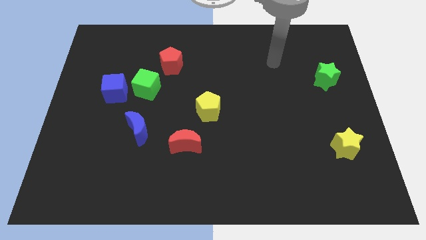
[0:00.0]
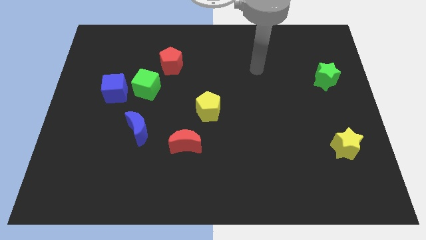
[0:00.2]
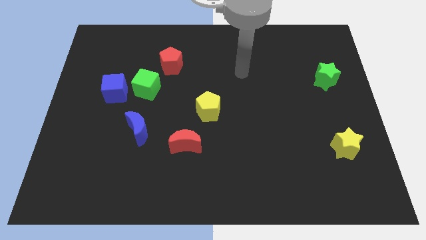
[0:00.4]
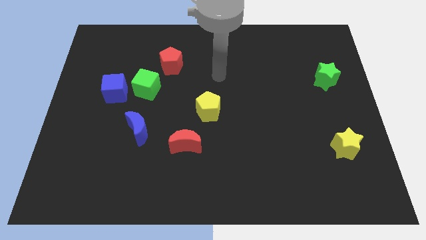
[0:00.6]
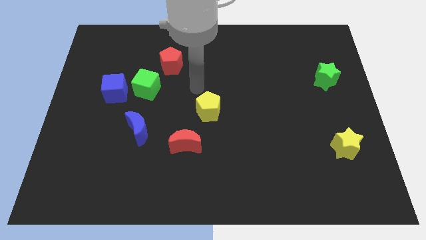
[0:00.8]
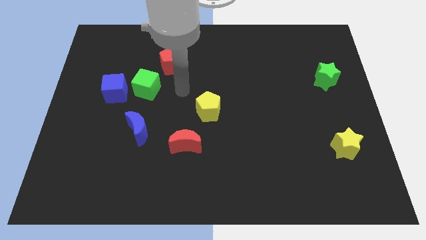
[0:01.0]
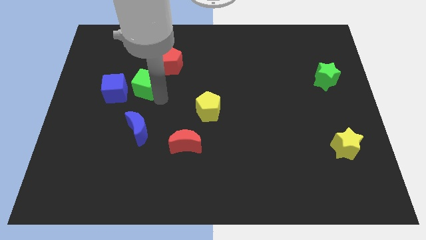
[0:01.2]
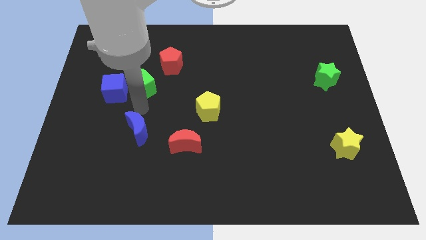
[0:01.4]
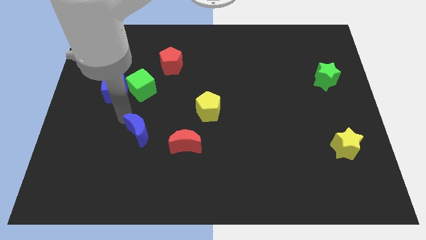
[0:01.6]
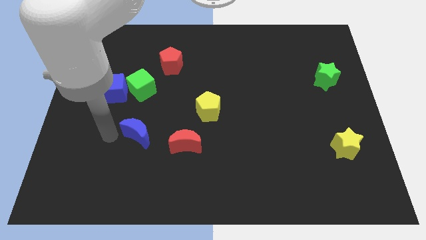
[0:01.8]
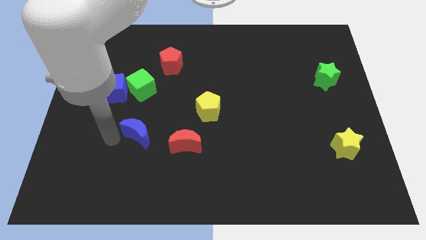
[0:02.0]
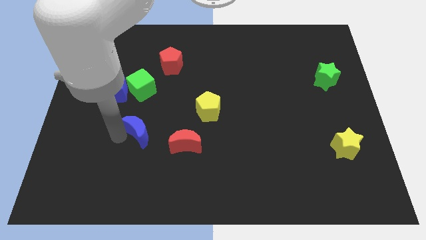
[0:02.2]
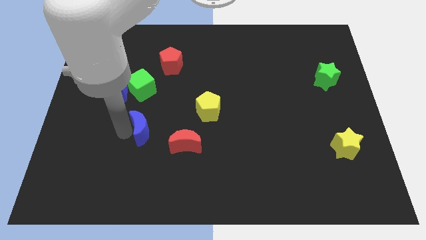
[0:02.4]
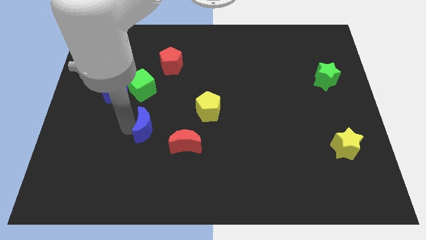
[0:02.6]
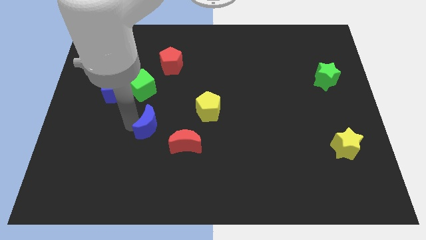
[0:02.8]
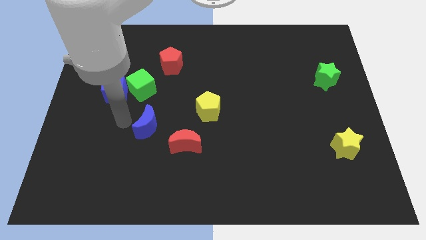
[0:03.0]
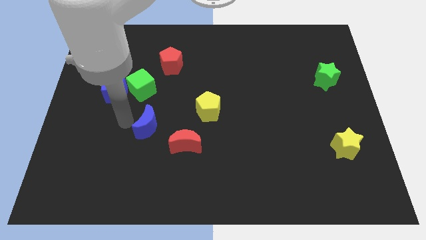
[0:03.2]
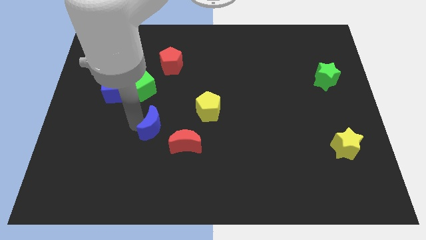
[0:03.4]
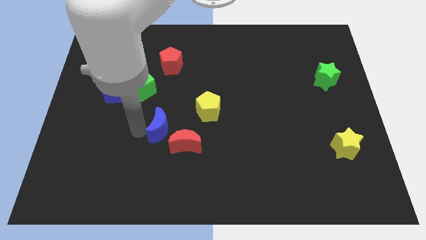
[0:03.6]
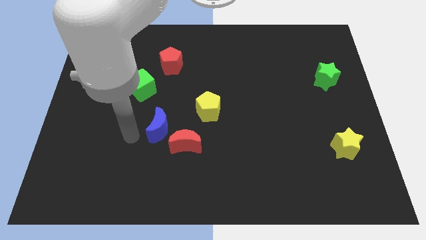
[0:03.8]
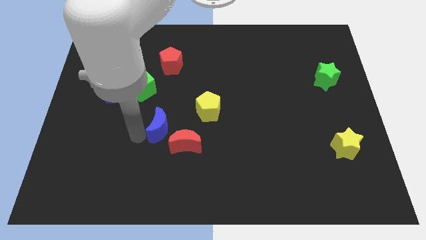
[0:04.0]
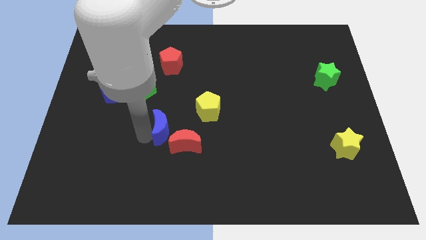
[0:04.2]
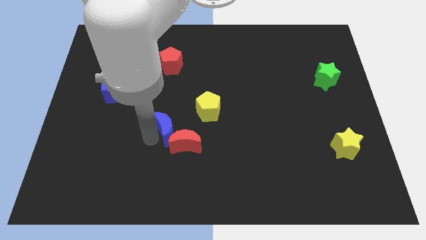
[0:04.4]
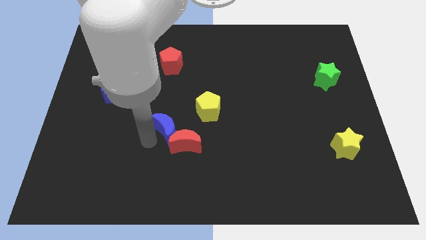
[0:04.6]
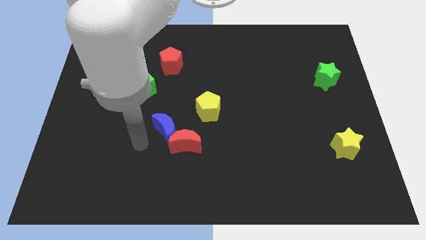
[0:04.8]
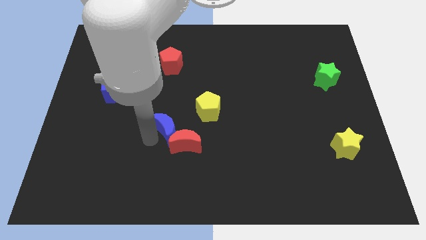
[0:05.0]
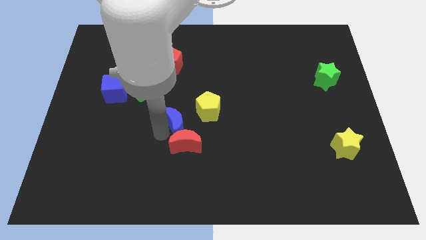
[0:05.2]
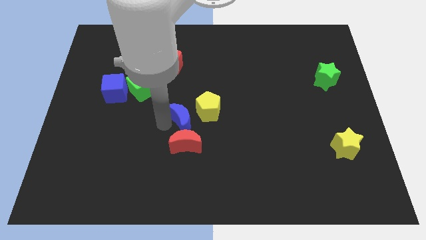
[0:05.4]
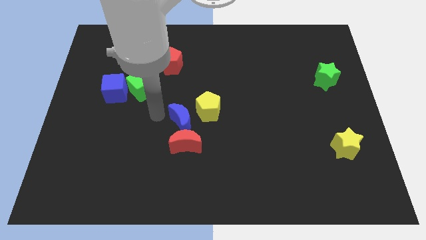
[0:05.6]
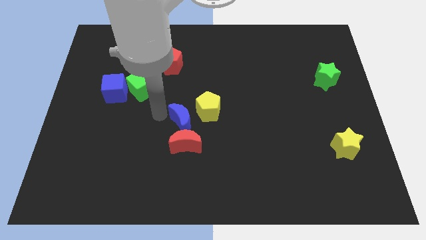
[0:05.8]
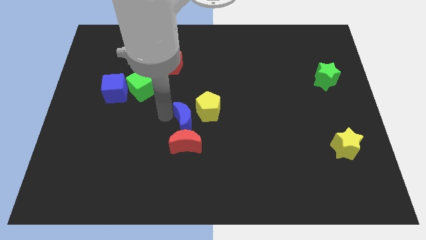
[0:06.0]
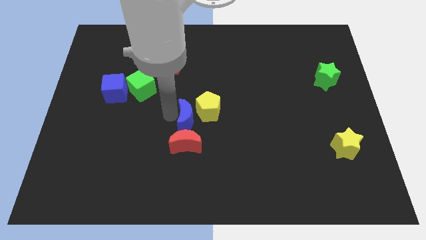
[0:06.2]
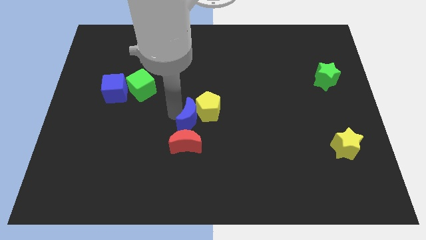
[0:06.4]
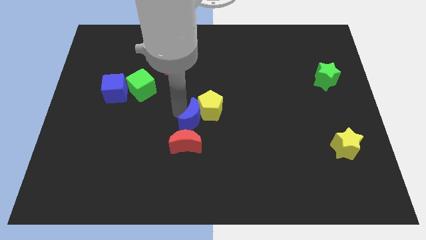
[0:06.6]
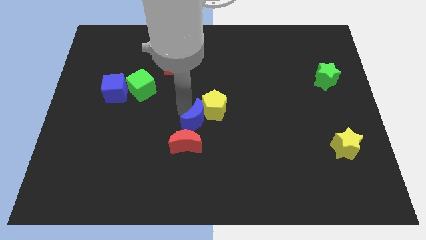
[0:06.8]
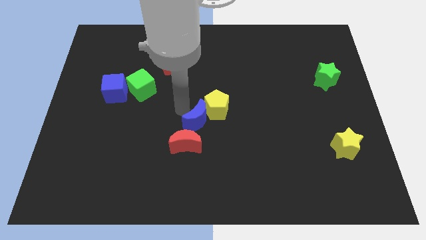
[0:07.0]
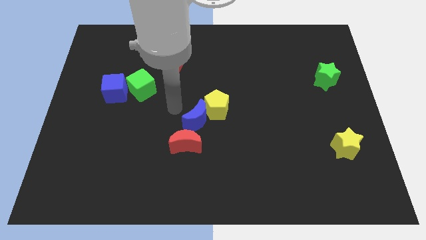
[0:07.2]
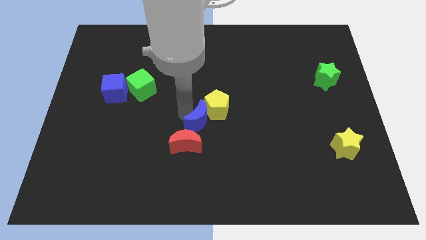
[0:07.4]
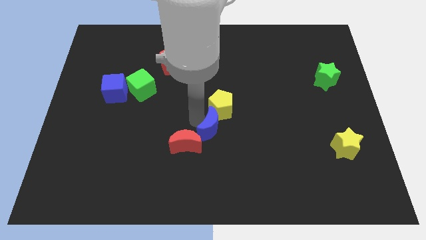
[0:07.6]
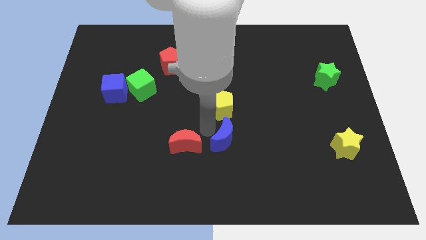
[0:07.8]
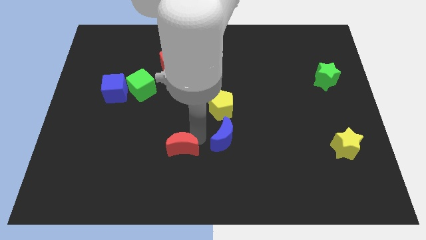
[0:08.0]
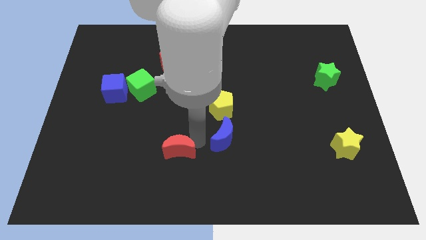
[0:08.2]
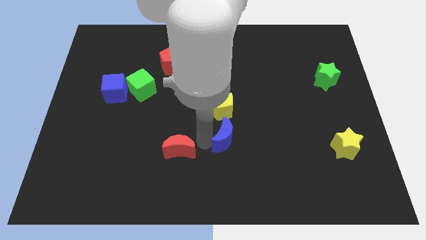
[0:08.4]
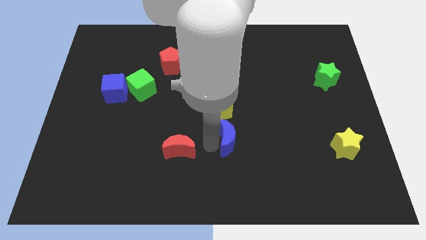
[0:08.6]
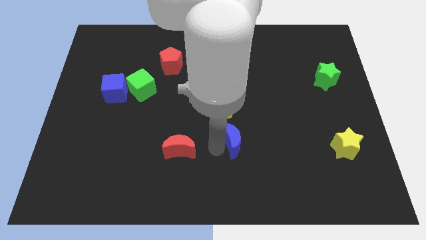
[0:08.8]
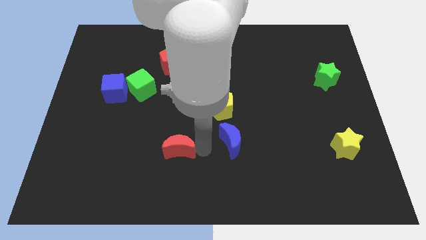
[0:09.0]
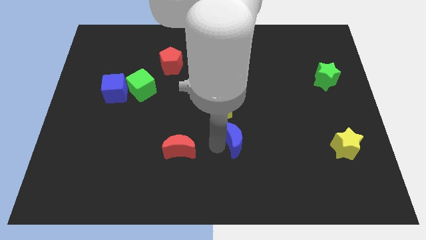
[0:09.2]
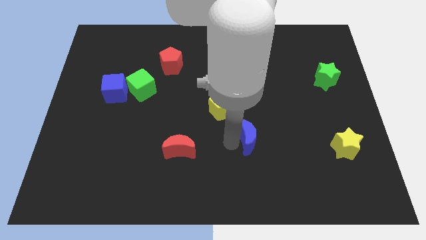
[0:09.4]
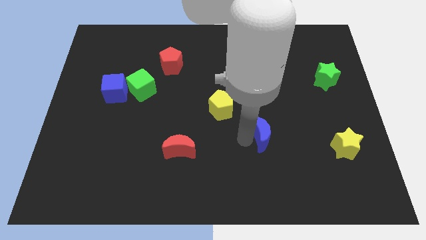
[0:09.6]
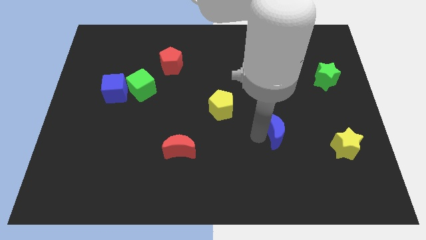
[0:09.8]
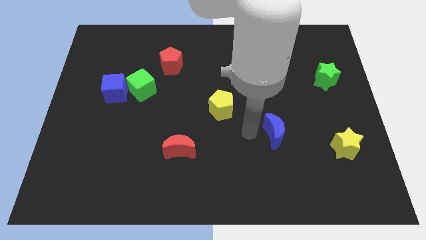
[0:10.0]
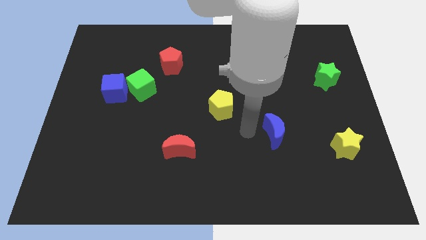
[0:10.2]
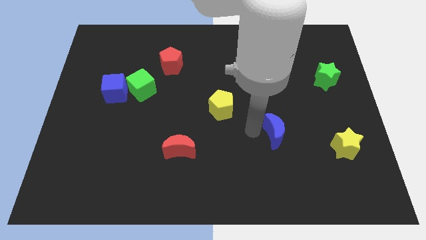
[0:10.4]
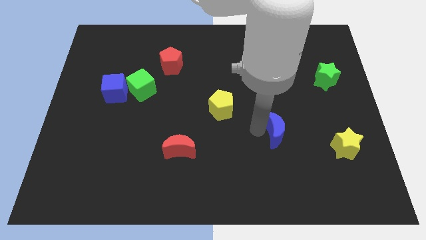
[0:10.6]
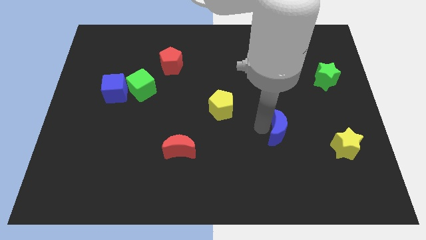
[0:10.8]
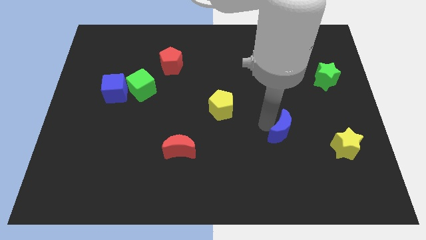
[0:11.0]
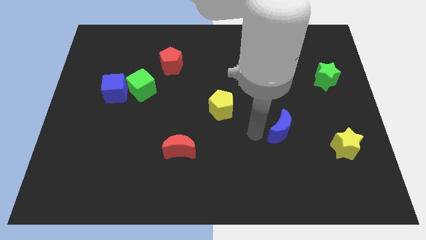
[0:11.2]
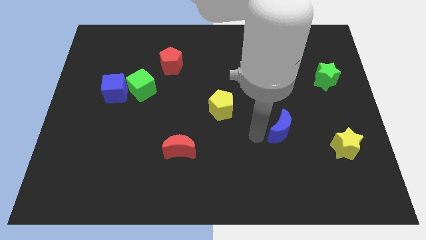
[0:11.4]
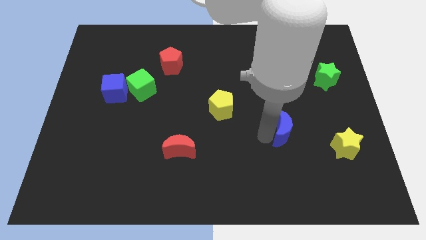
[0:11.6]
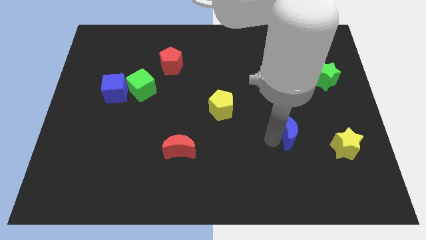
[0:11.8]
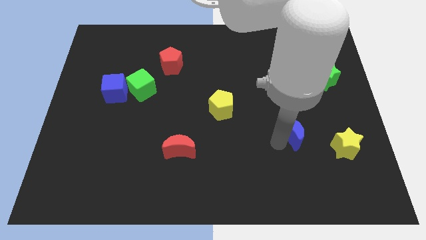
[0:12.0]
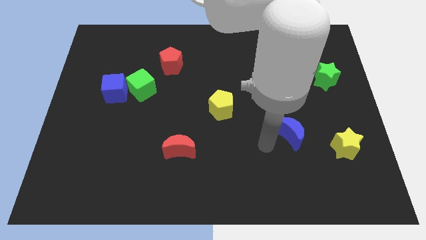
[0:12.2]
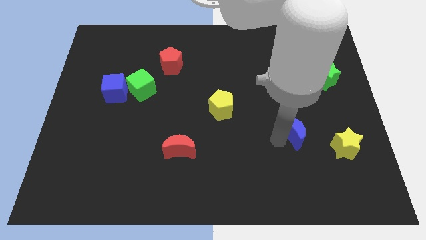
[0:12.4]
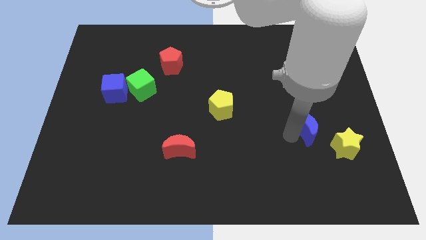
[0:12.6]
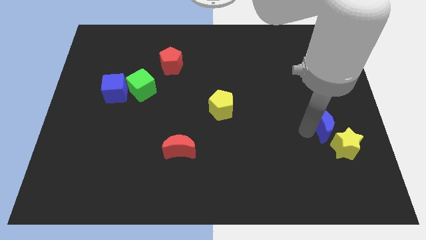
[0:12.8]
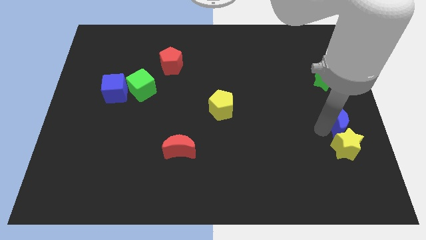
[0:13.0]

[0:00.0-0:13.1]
put the blue moon to the center right
